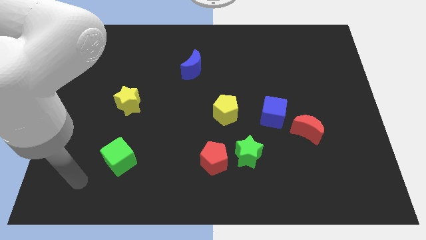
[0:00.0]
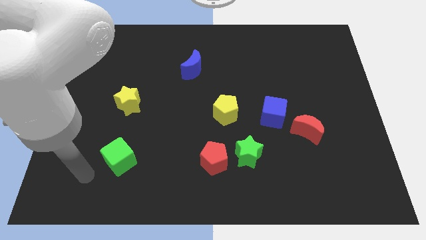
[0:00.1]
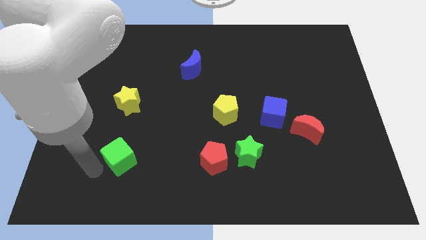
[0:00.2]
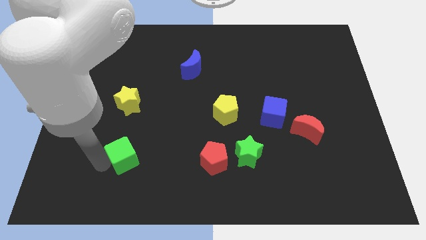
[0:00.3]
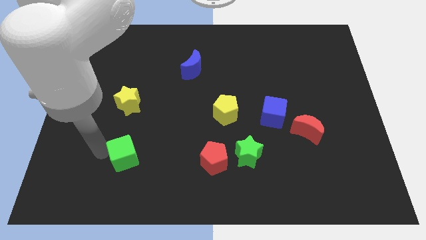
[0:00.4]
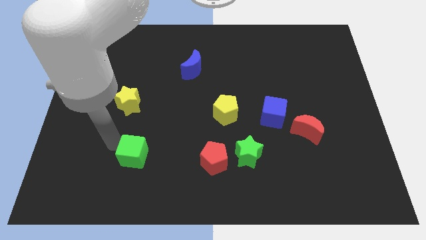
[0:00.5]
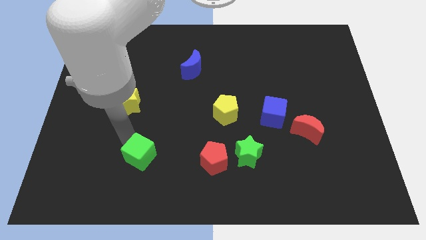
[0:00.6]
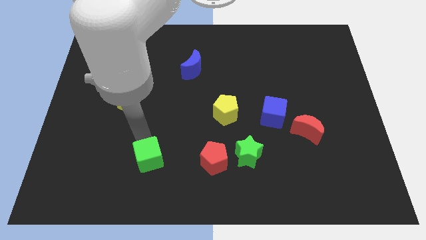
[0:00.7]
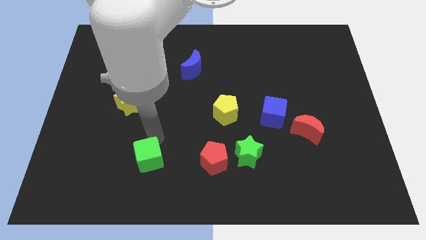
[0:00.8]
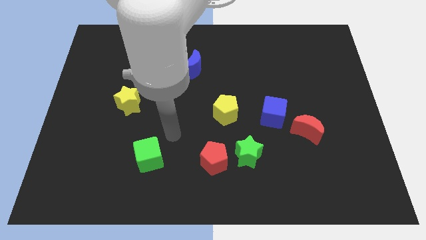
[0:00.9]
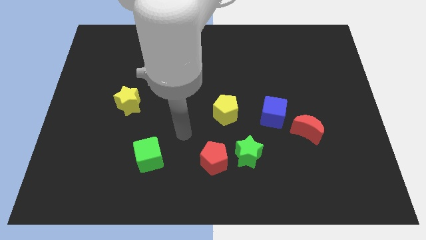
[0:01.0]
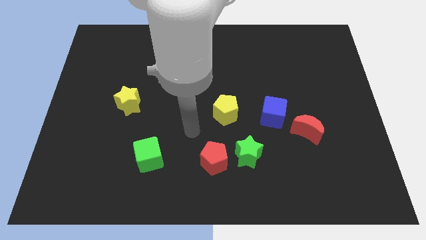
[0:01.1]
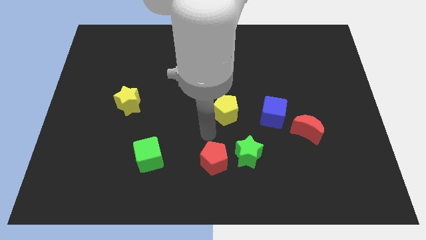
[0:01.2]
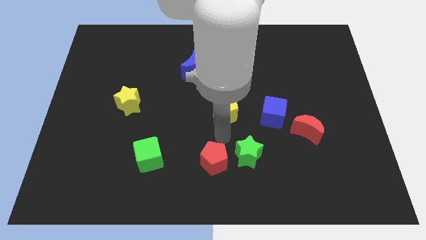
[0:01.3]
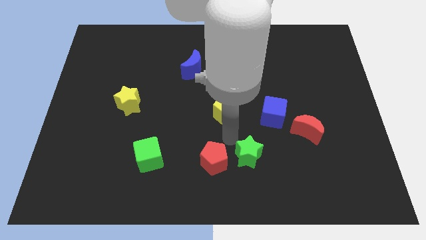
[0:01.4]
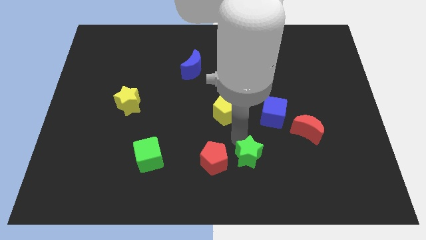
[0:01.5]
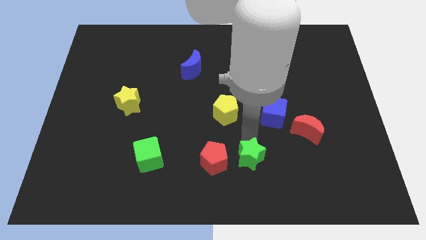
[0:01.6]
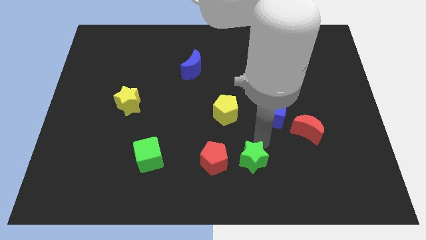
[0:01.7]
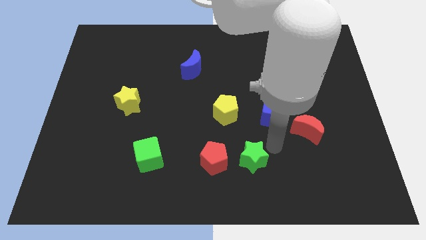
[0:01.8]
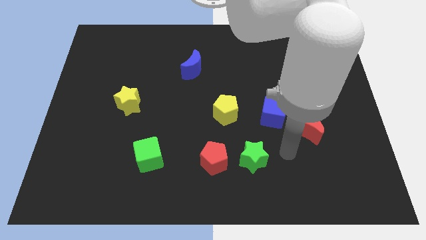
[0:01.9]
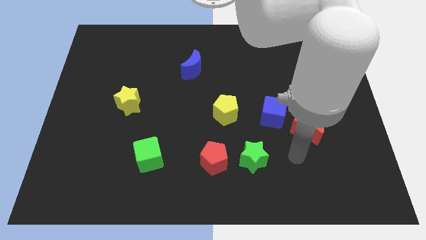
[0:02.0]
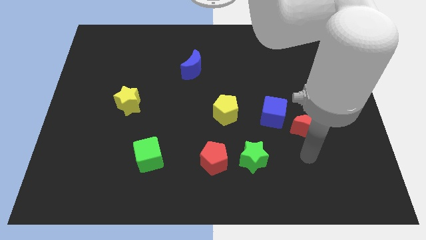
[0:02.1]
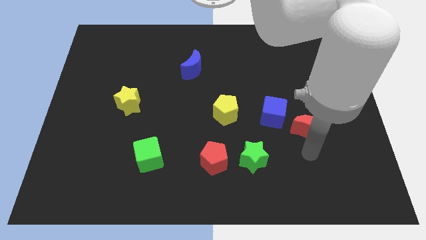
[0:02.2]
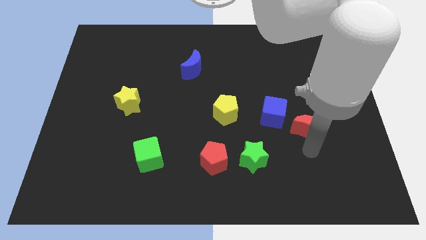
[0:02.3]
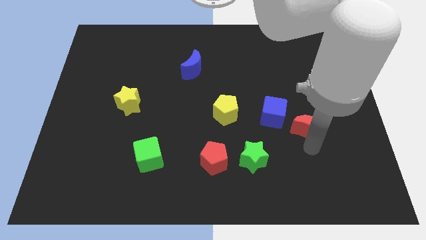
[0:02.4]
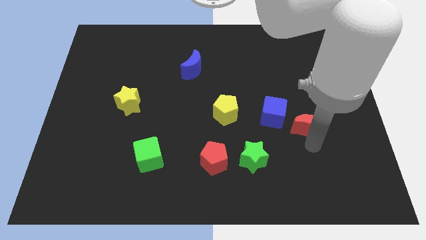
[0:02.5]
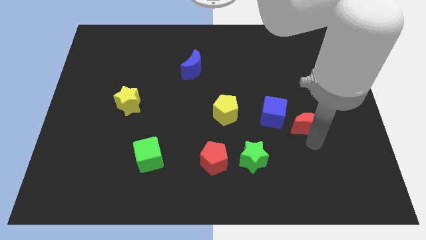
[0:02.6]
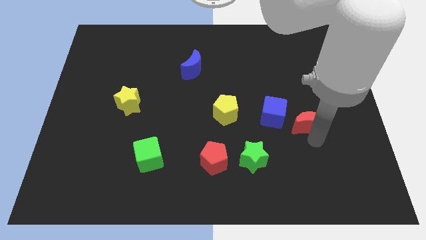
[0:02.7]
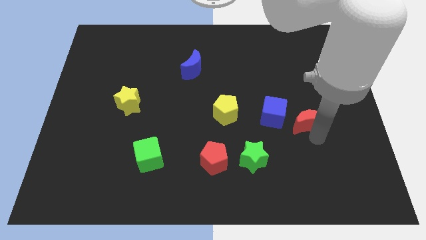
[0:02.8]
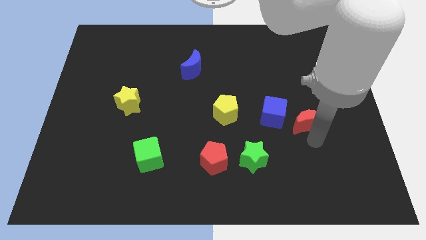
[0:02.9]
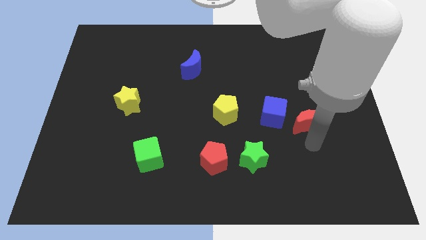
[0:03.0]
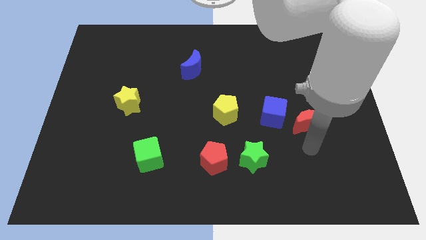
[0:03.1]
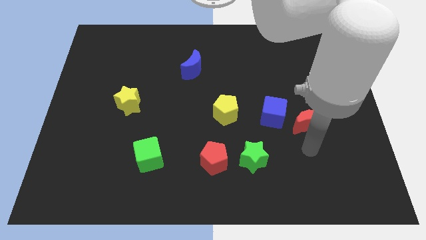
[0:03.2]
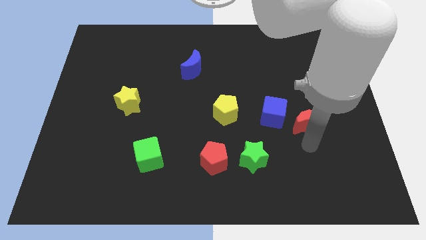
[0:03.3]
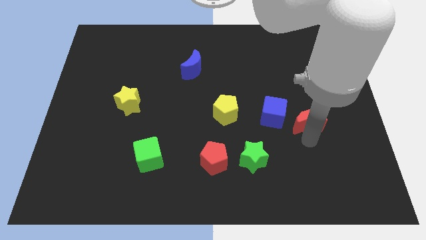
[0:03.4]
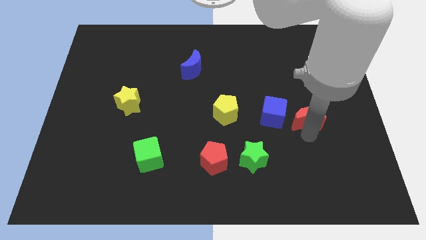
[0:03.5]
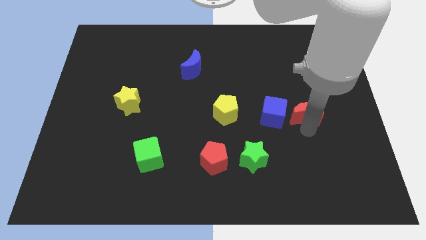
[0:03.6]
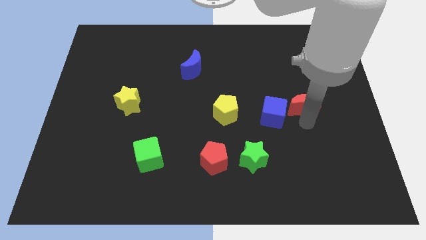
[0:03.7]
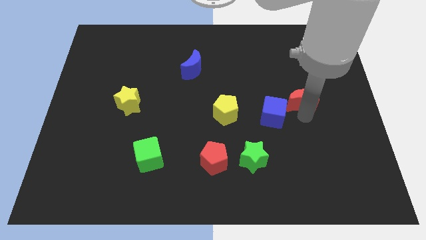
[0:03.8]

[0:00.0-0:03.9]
move the red moon up slightly

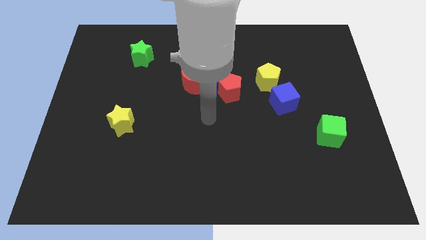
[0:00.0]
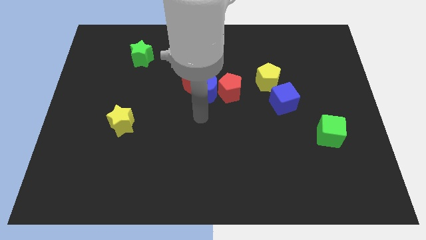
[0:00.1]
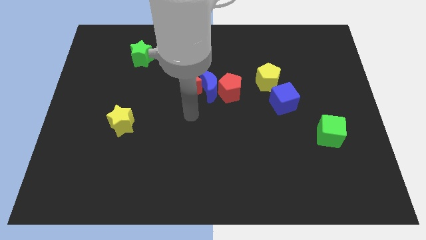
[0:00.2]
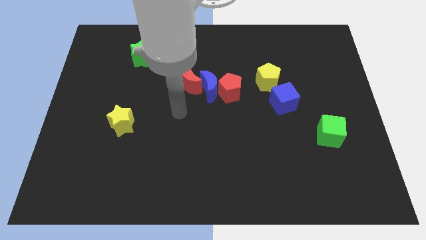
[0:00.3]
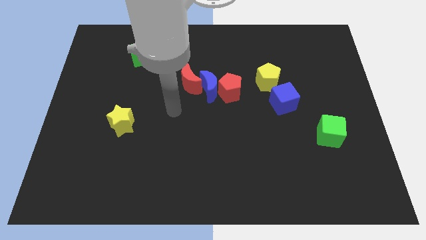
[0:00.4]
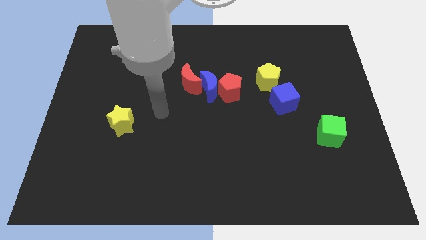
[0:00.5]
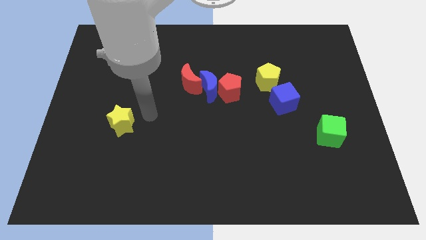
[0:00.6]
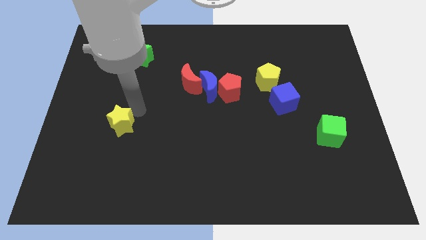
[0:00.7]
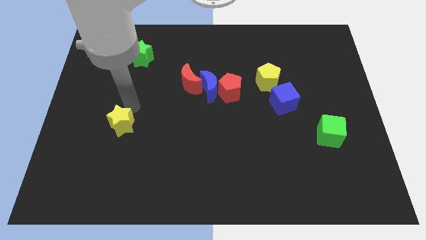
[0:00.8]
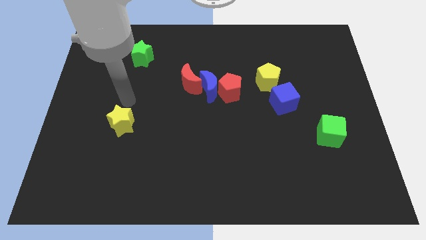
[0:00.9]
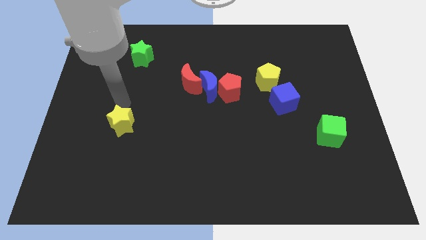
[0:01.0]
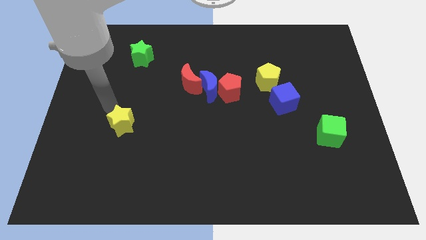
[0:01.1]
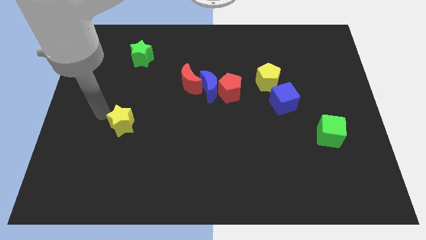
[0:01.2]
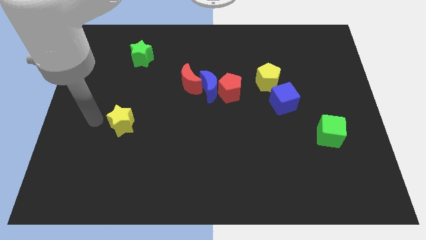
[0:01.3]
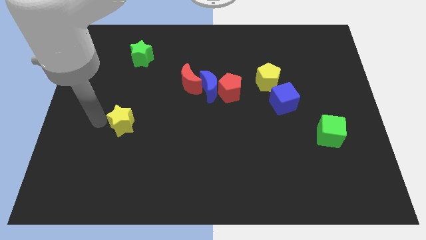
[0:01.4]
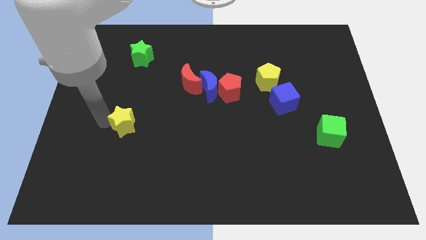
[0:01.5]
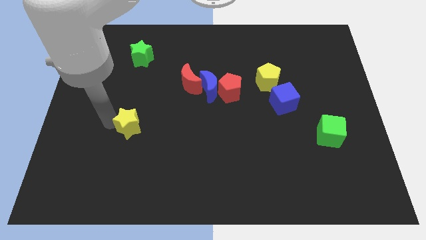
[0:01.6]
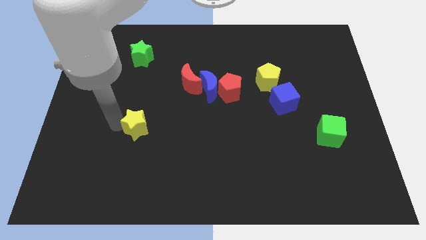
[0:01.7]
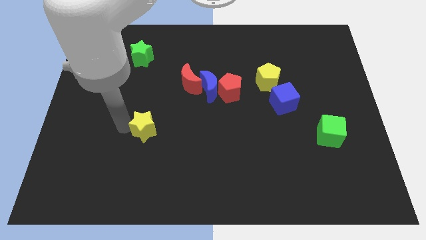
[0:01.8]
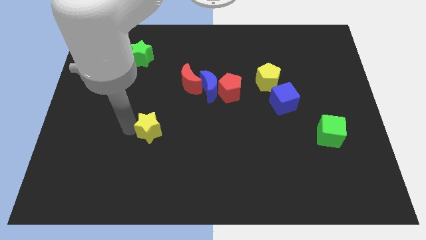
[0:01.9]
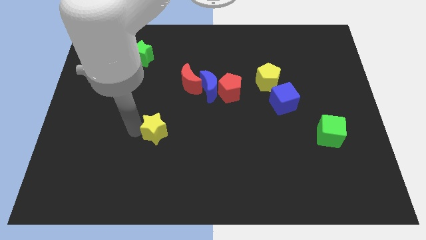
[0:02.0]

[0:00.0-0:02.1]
push the yellow star to the right somewhat

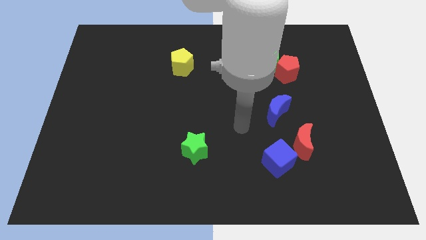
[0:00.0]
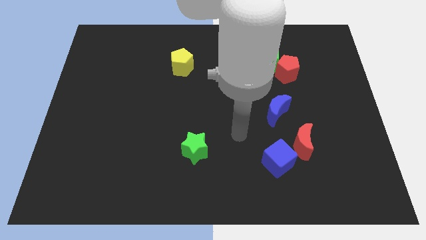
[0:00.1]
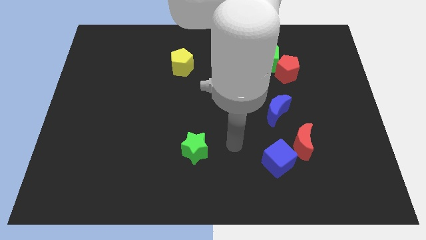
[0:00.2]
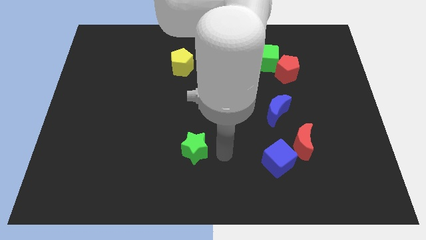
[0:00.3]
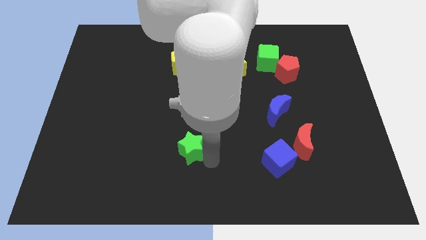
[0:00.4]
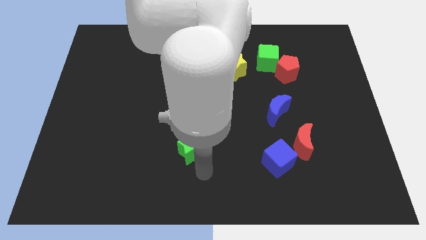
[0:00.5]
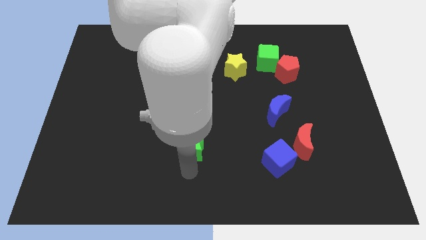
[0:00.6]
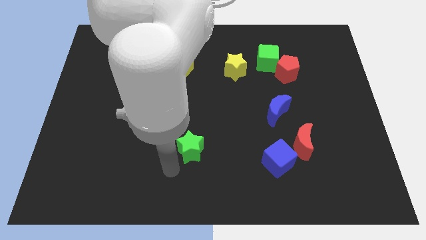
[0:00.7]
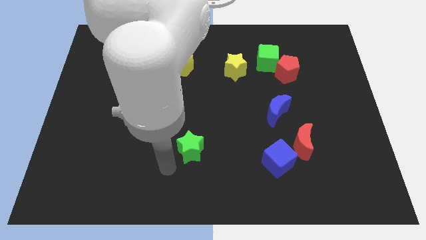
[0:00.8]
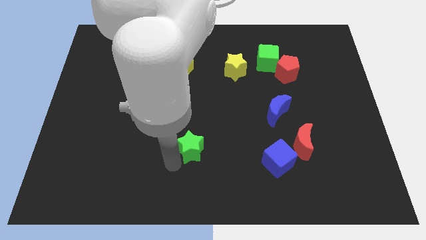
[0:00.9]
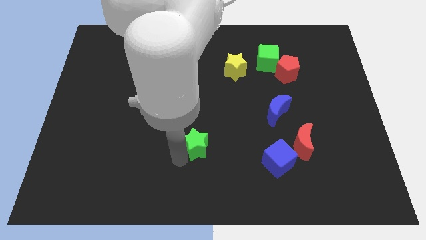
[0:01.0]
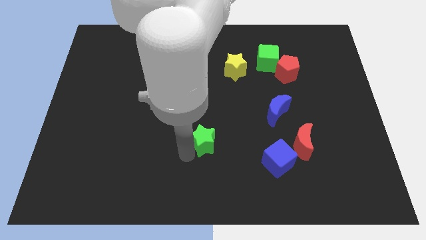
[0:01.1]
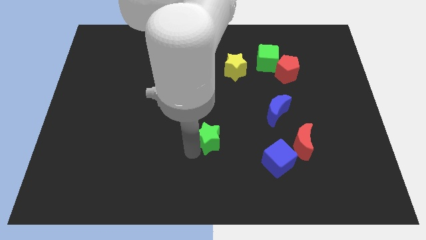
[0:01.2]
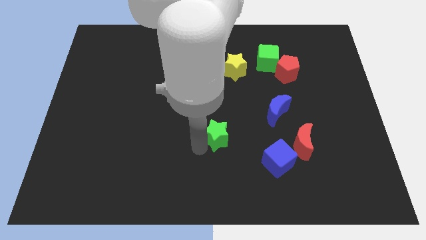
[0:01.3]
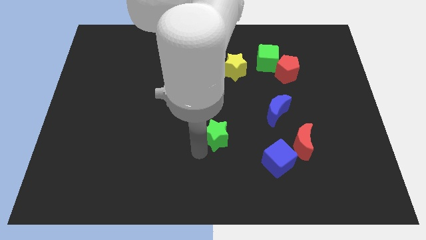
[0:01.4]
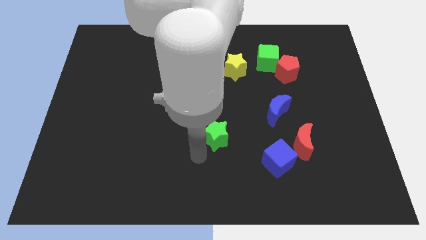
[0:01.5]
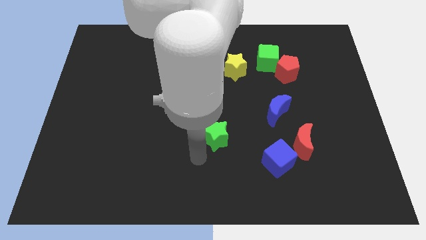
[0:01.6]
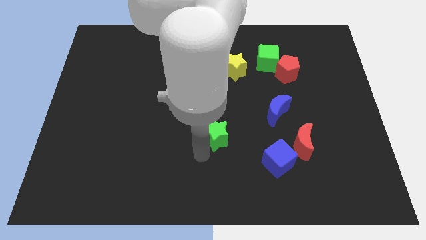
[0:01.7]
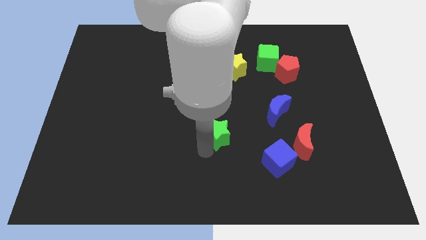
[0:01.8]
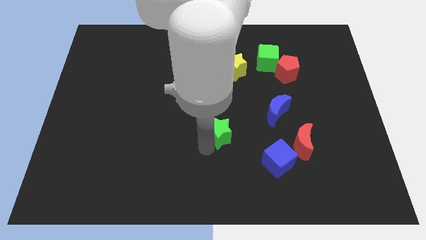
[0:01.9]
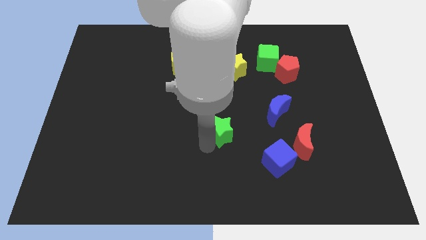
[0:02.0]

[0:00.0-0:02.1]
move the green star a bit upwards and to the right diagonally
